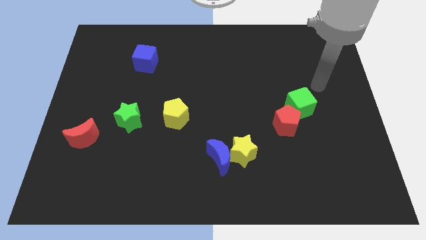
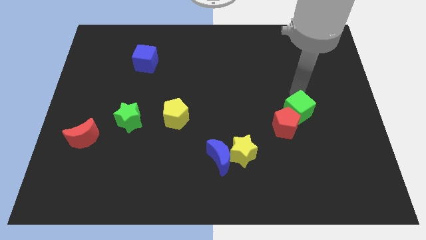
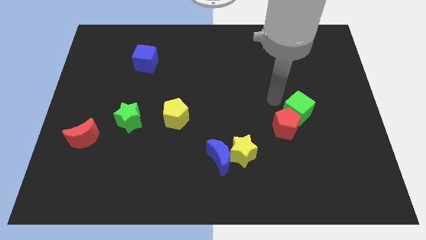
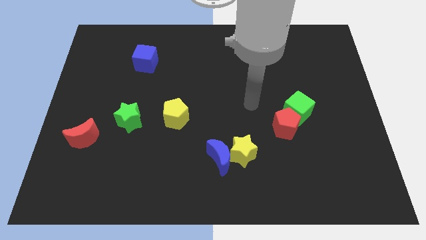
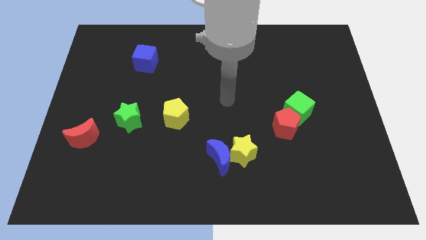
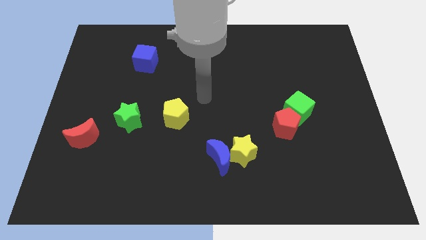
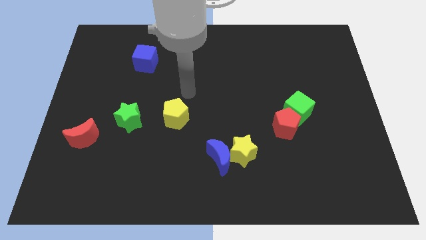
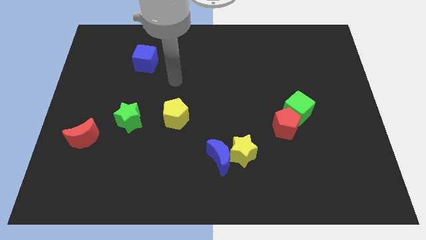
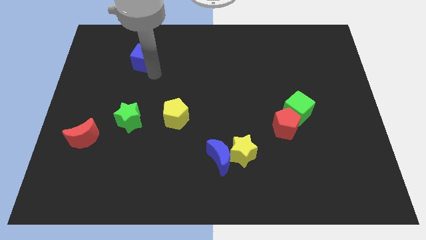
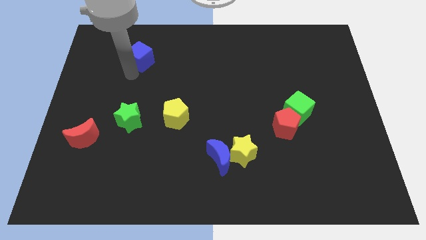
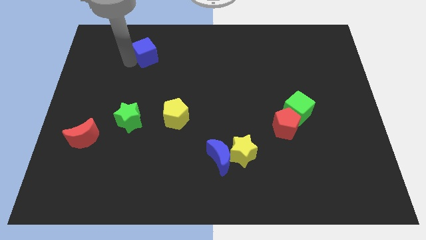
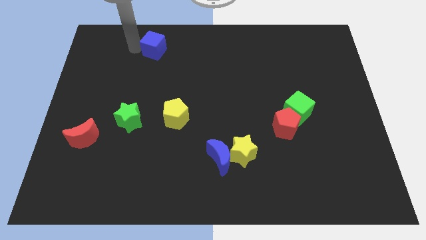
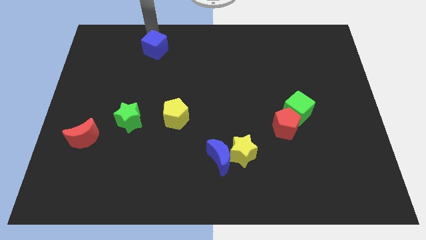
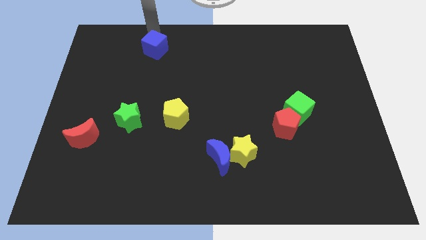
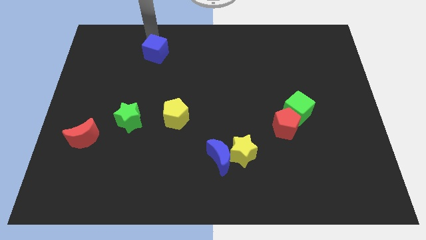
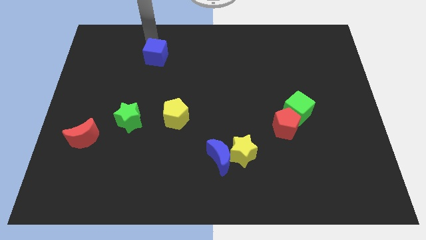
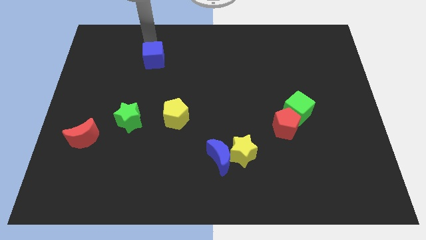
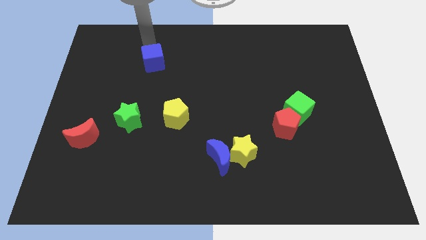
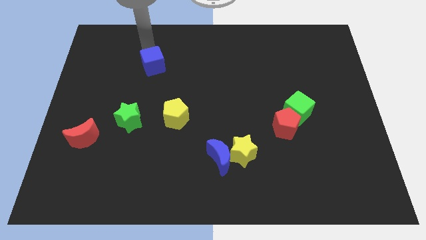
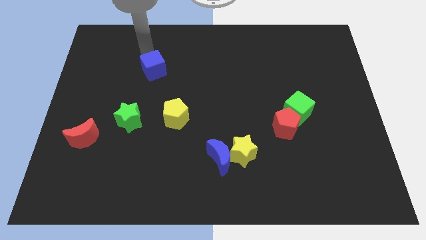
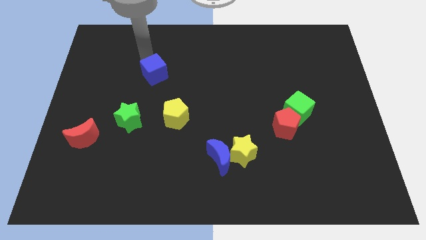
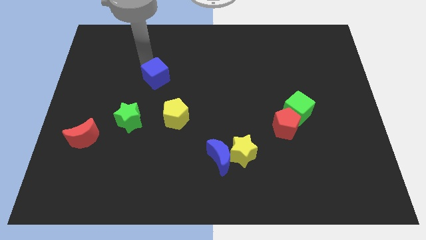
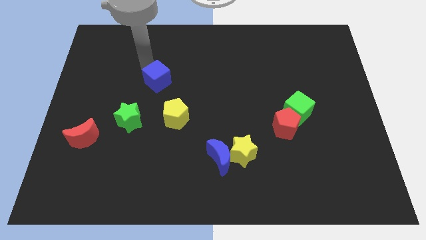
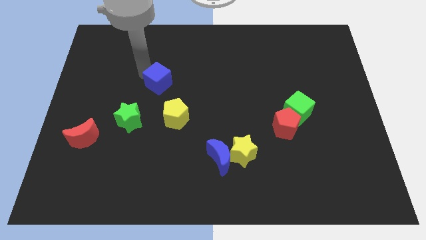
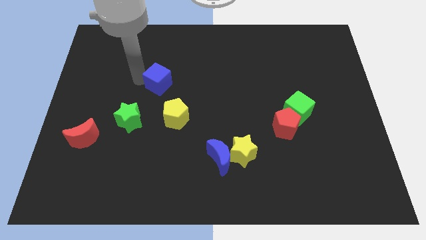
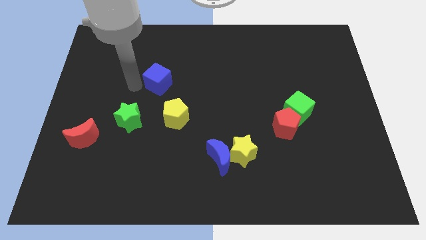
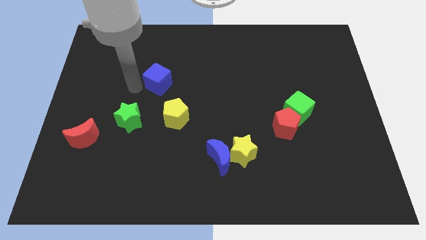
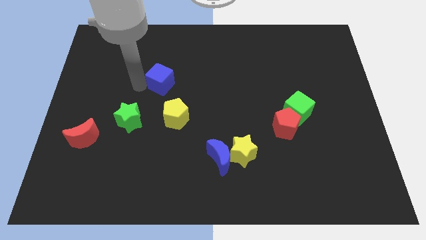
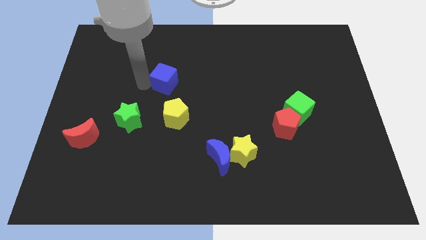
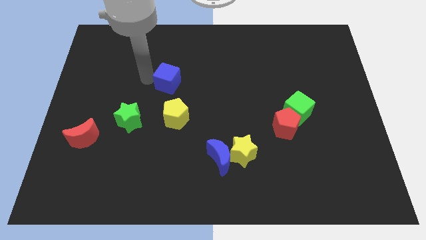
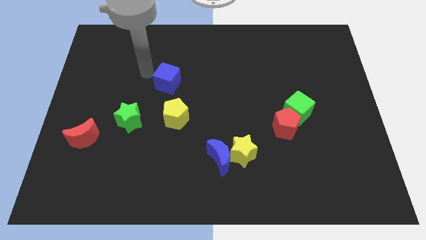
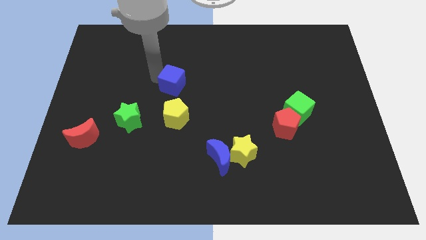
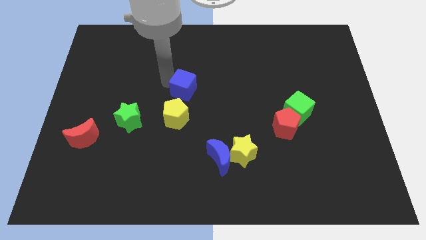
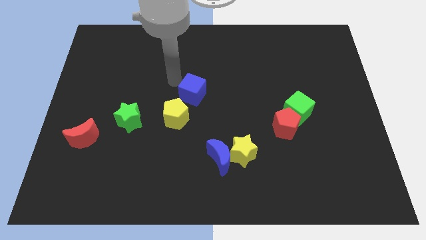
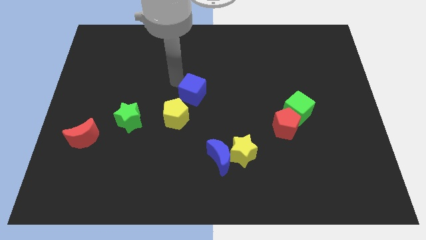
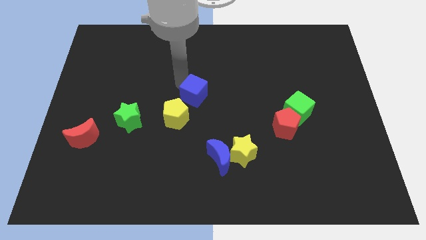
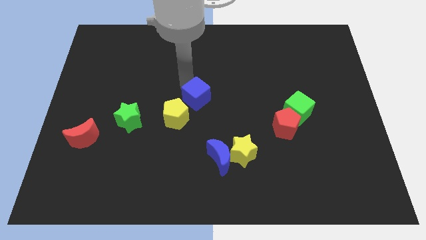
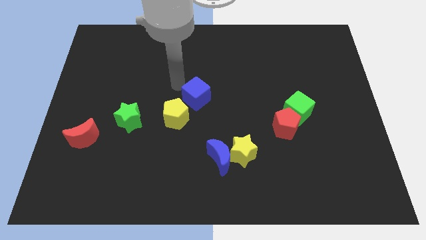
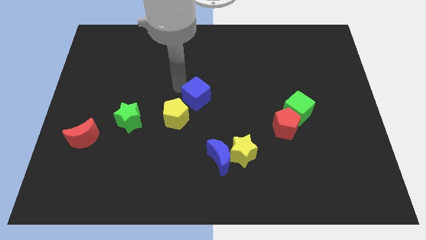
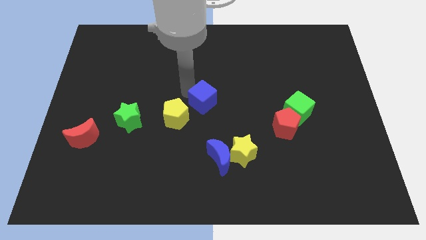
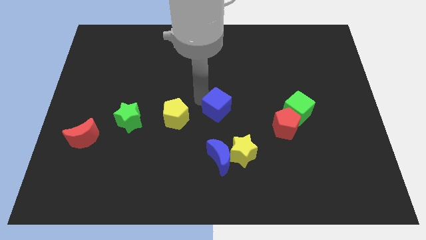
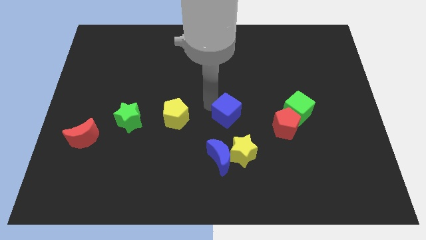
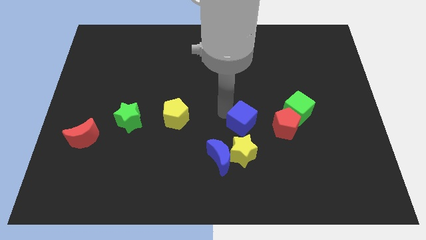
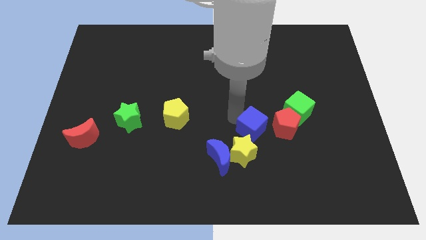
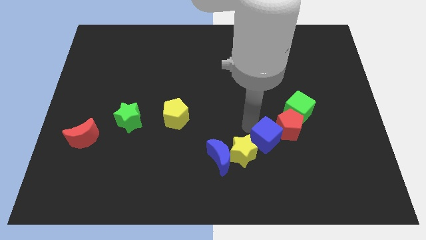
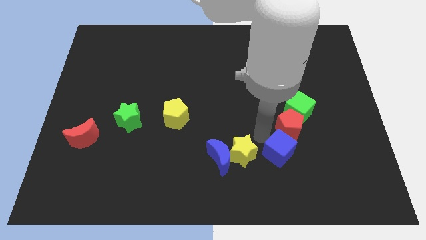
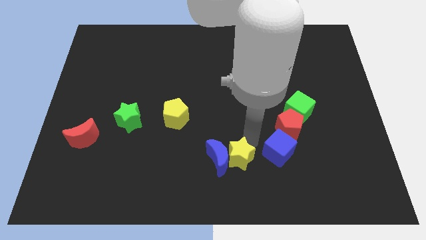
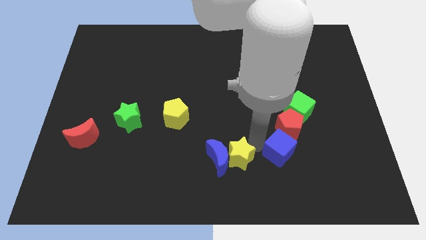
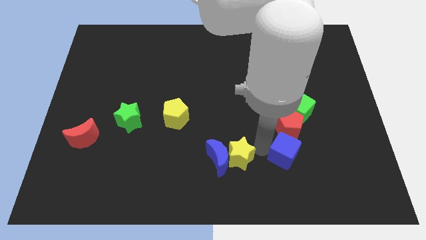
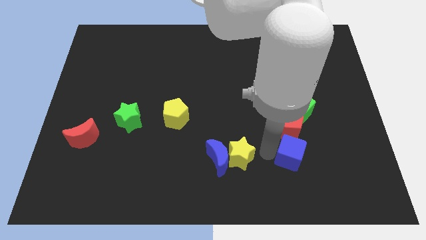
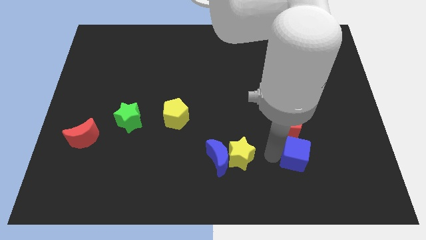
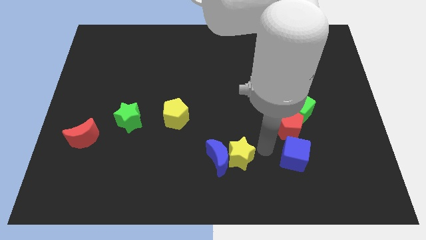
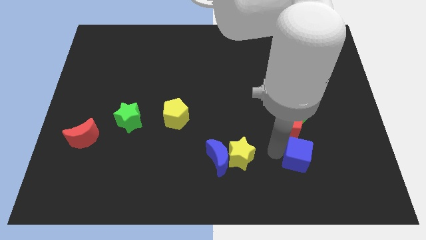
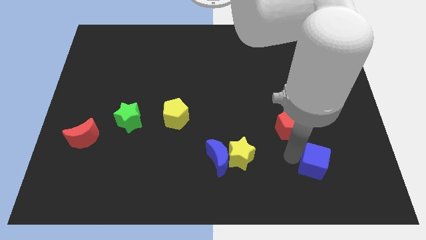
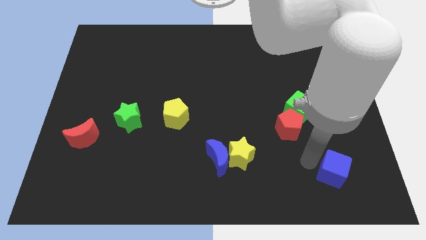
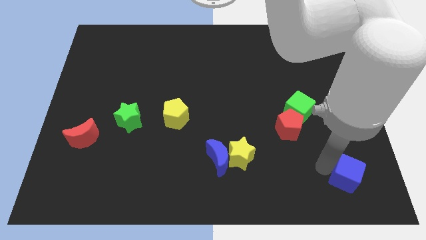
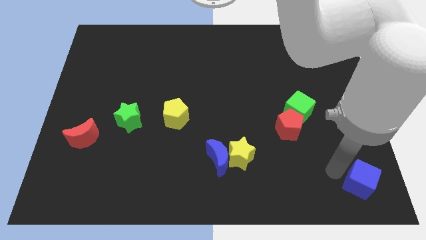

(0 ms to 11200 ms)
slide the blue cube to the bottom right corner

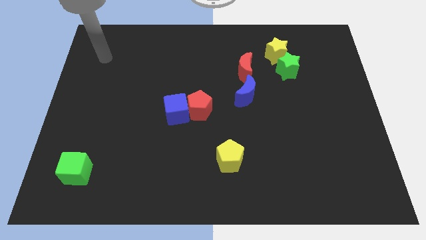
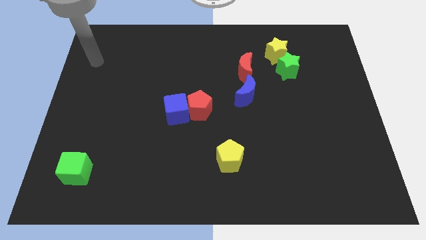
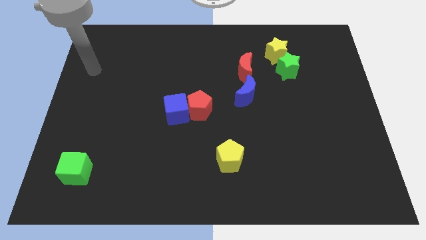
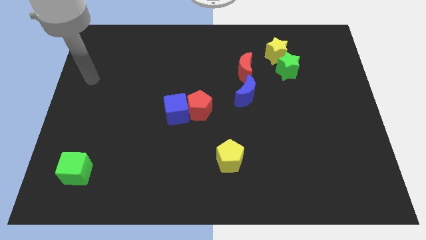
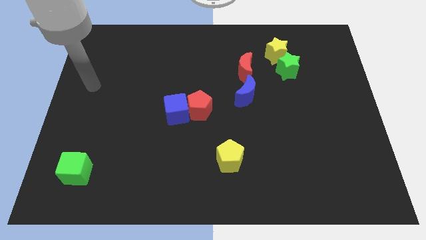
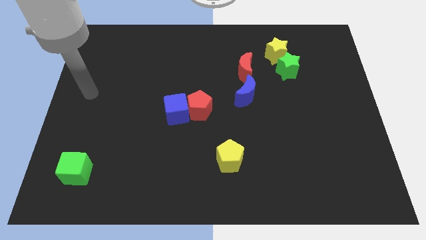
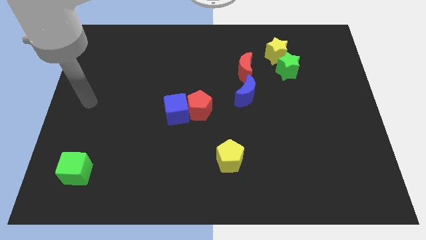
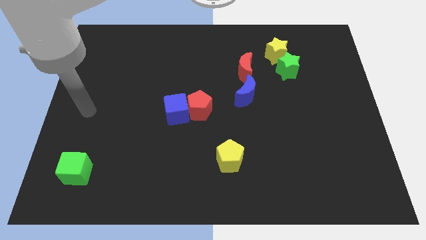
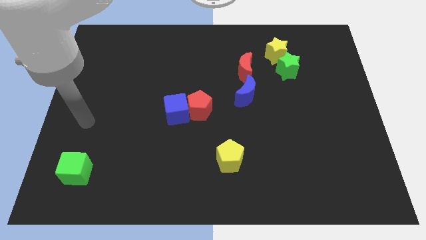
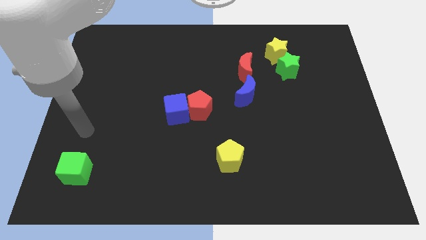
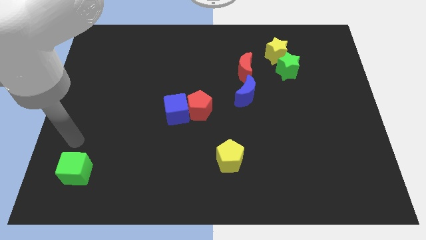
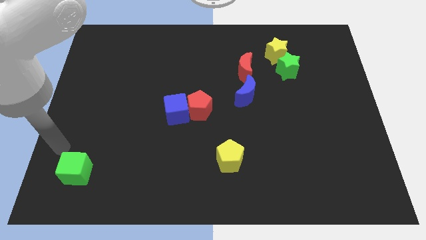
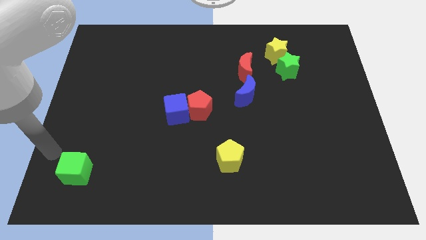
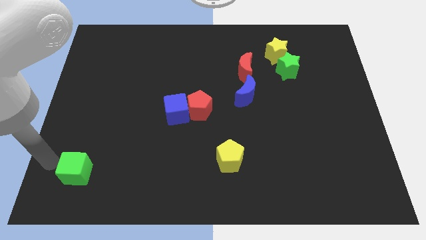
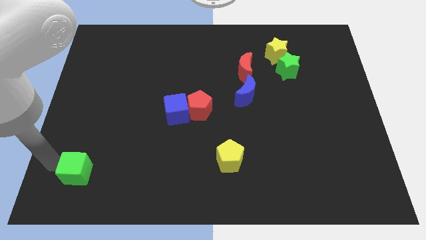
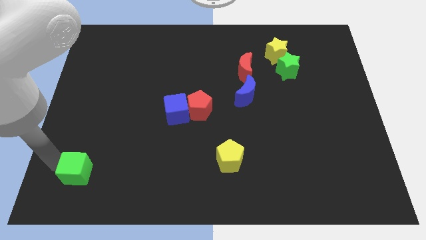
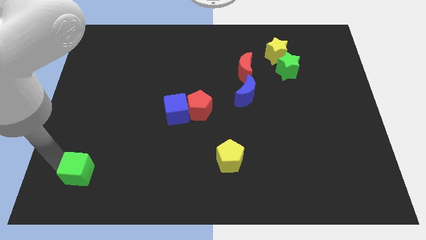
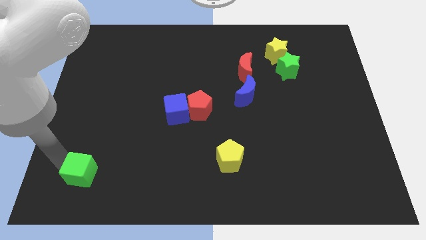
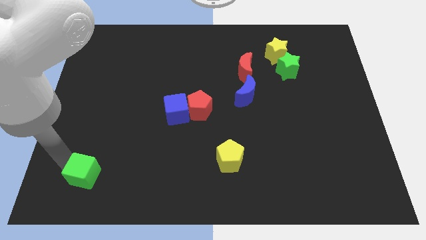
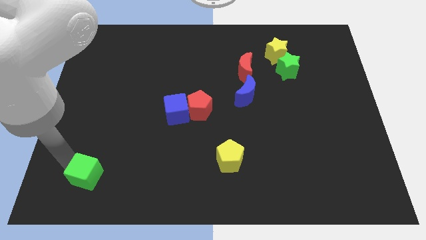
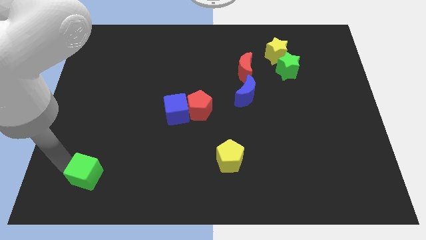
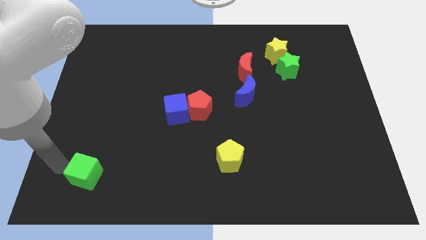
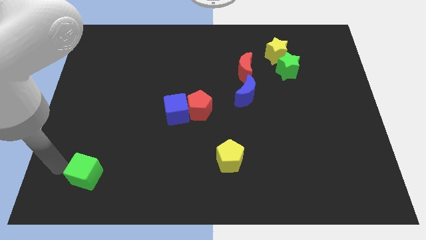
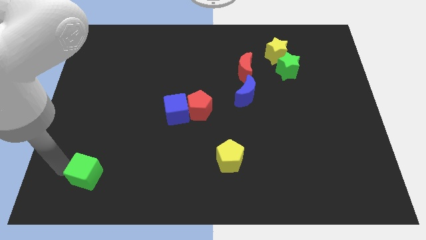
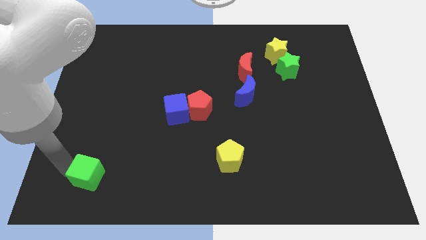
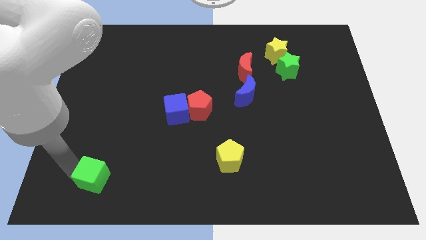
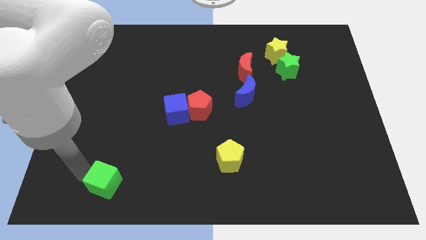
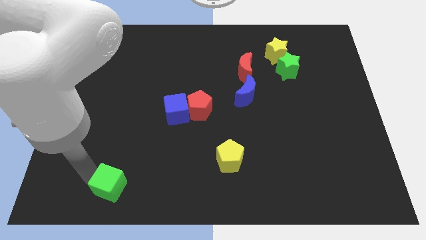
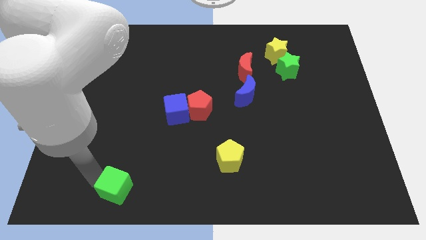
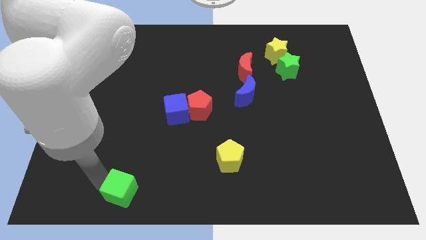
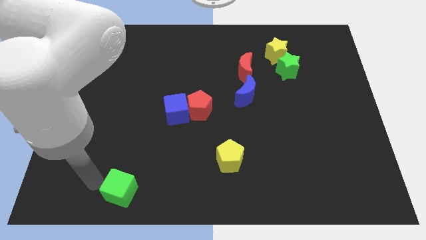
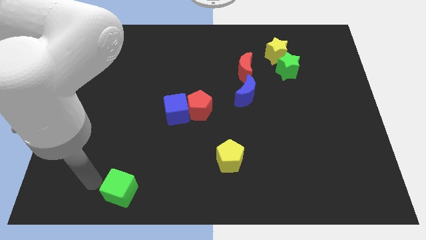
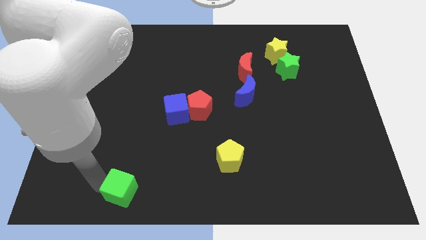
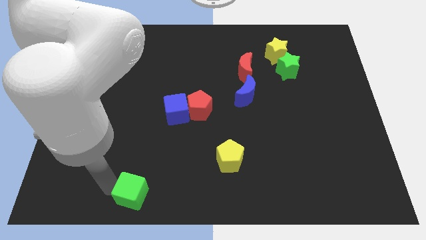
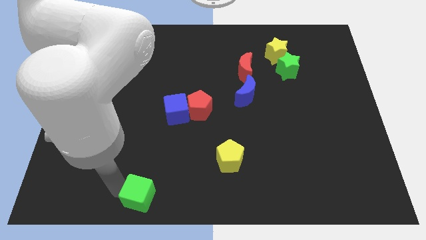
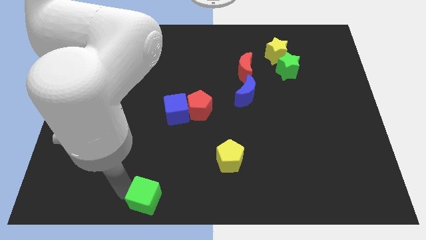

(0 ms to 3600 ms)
push the green cube to the bottom
